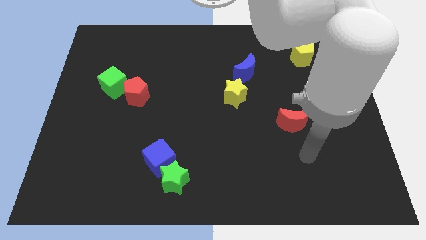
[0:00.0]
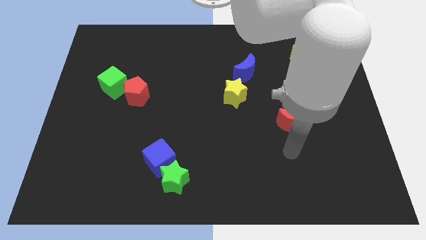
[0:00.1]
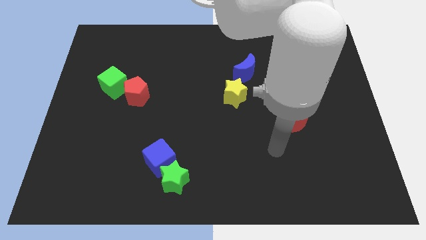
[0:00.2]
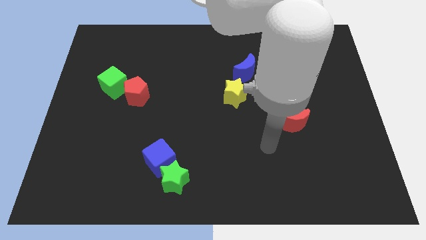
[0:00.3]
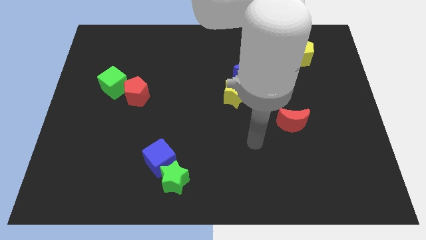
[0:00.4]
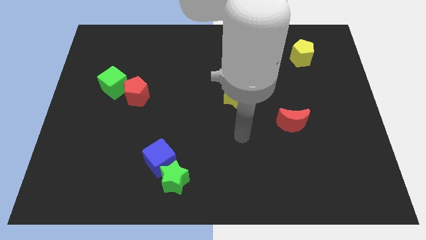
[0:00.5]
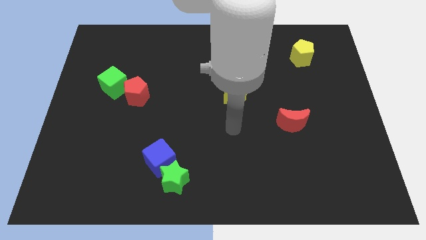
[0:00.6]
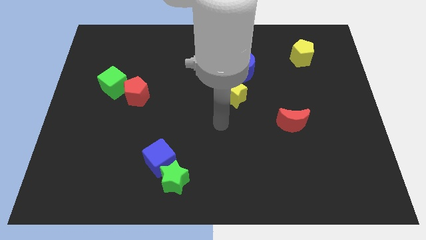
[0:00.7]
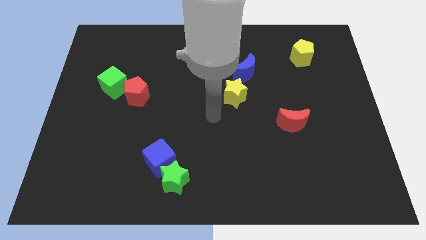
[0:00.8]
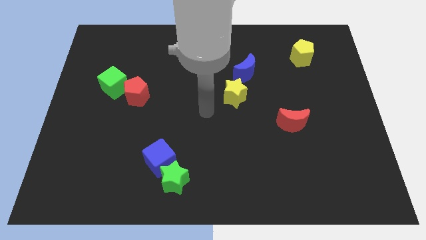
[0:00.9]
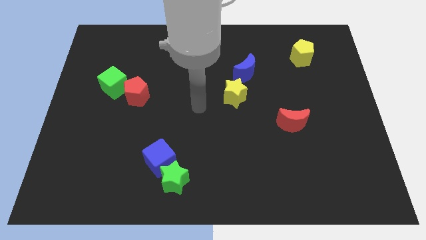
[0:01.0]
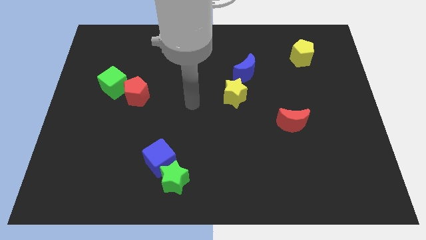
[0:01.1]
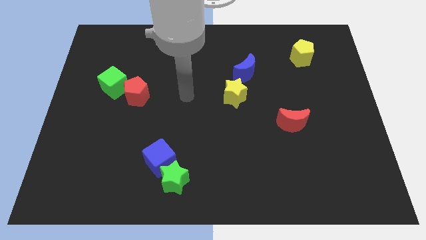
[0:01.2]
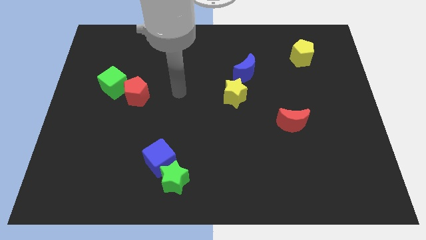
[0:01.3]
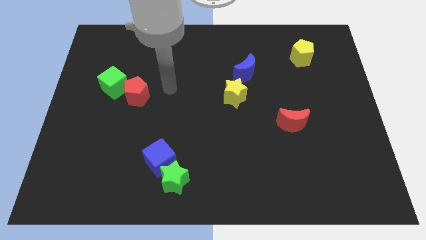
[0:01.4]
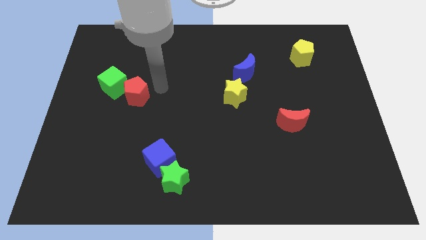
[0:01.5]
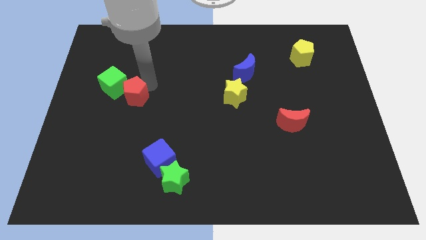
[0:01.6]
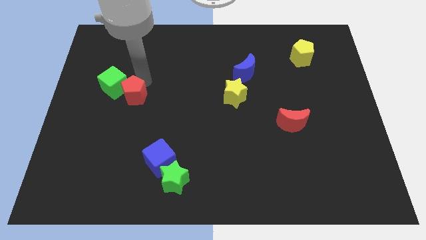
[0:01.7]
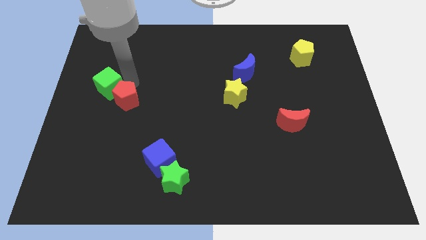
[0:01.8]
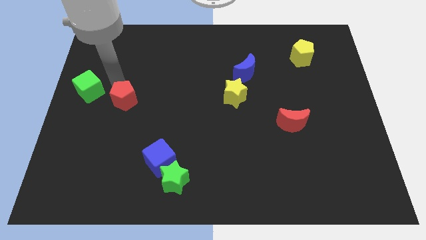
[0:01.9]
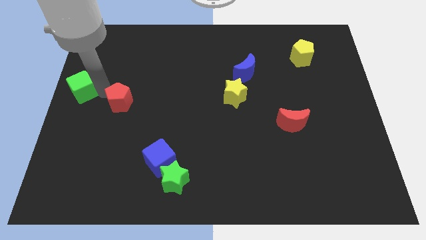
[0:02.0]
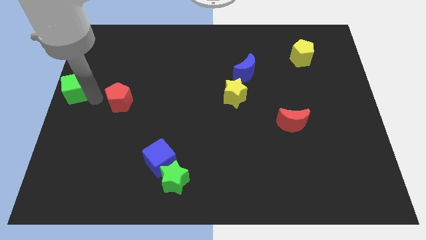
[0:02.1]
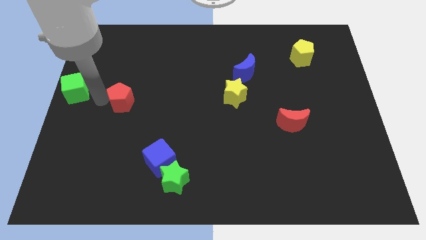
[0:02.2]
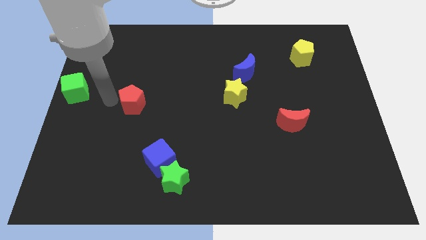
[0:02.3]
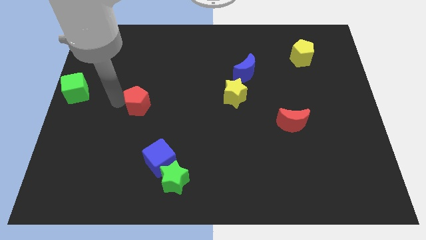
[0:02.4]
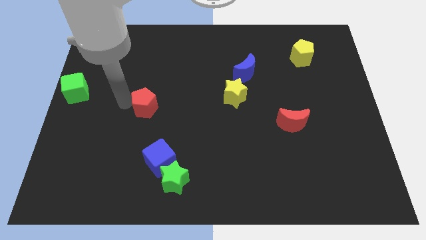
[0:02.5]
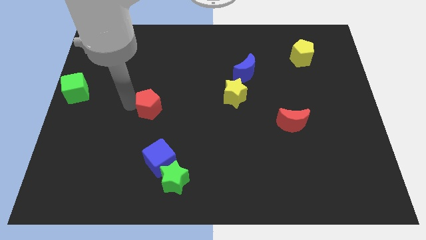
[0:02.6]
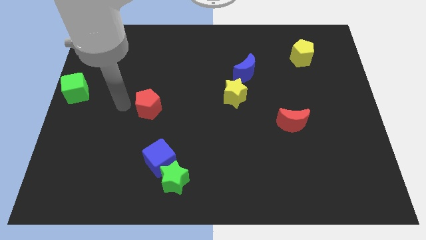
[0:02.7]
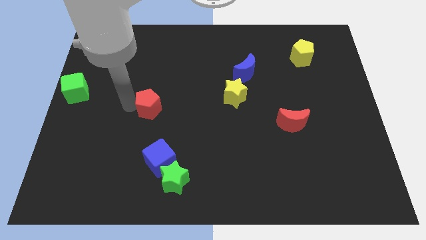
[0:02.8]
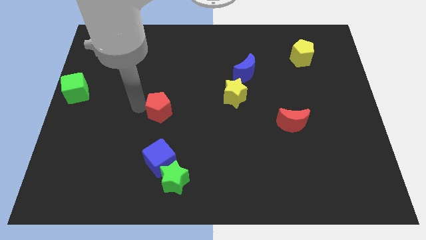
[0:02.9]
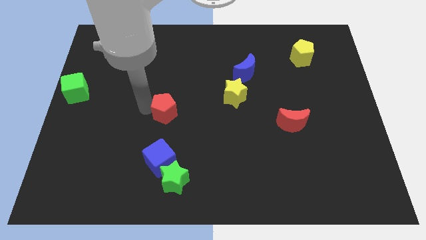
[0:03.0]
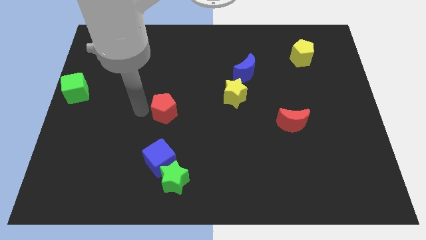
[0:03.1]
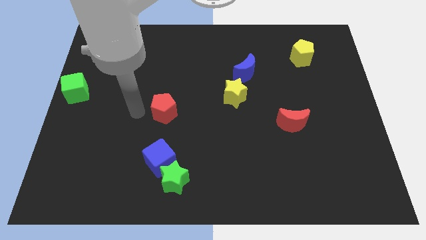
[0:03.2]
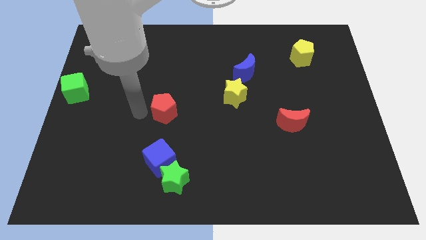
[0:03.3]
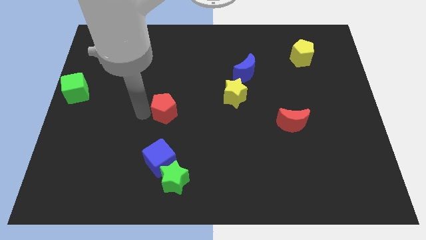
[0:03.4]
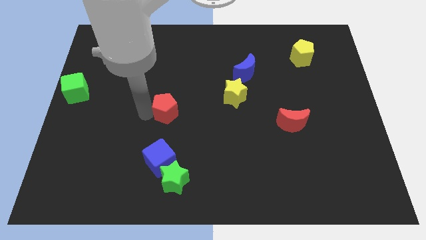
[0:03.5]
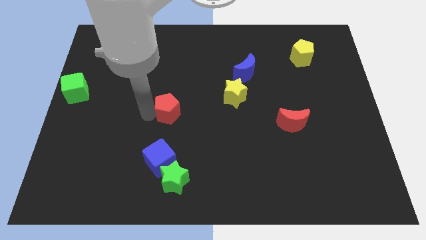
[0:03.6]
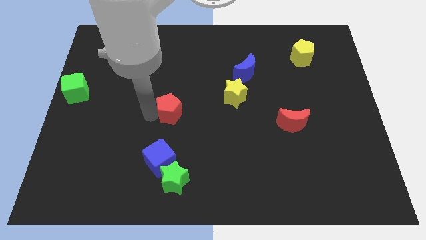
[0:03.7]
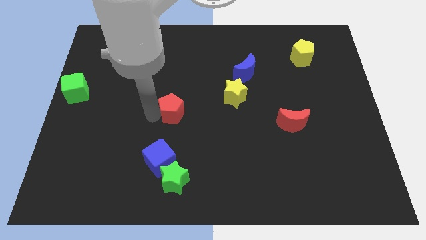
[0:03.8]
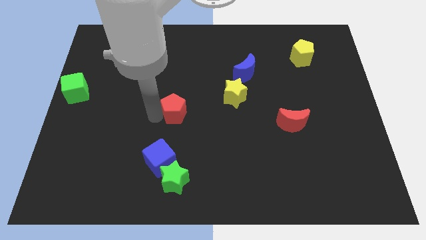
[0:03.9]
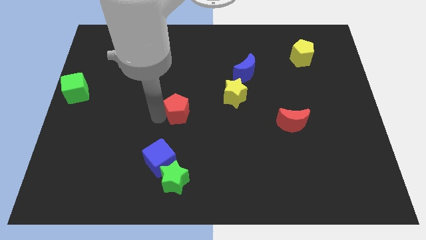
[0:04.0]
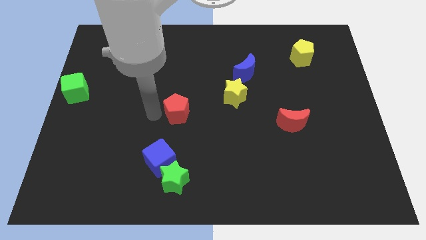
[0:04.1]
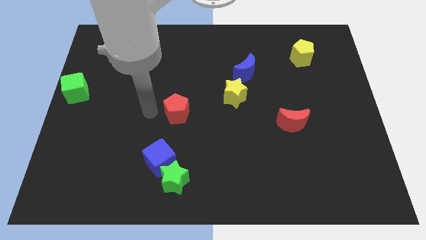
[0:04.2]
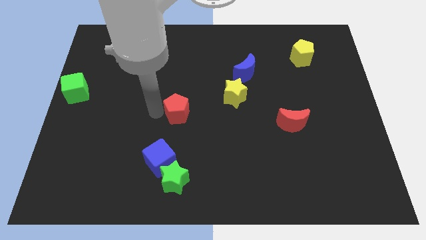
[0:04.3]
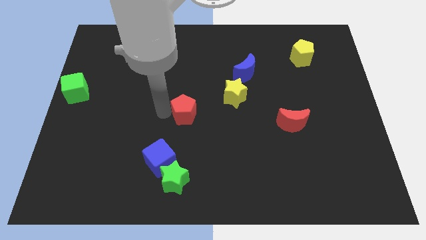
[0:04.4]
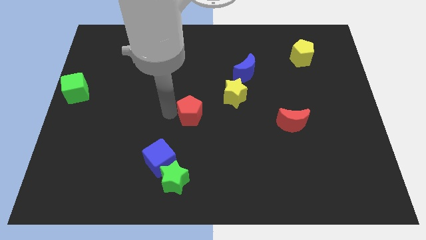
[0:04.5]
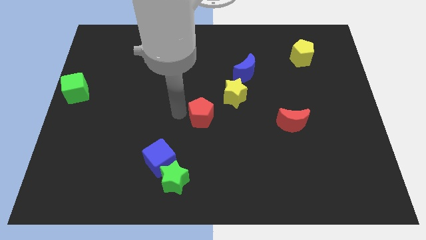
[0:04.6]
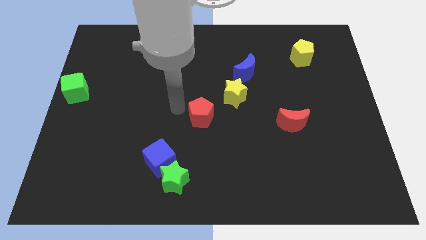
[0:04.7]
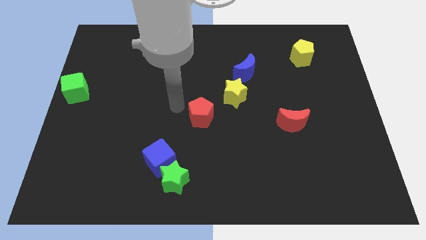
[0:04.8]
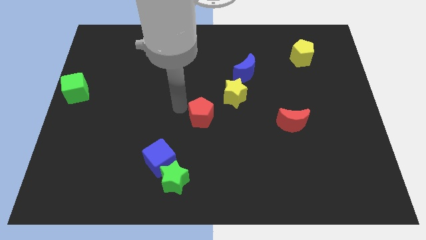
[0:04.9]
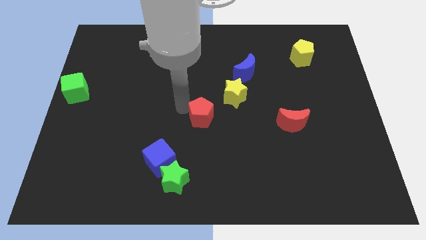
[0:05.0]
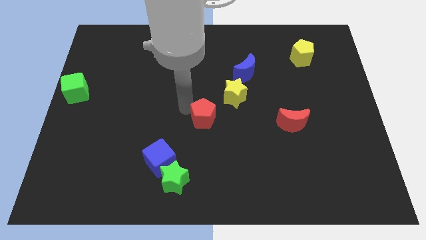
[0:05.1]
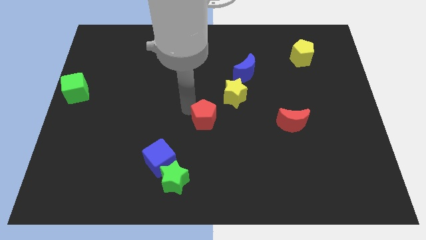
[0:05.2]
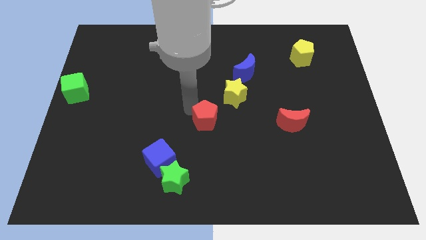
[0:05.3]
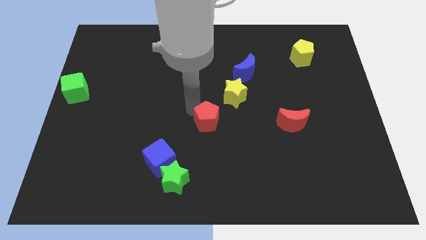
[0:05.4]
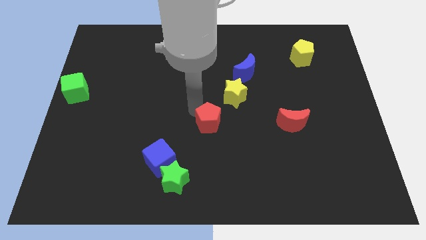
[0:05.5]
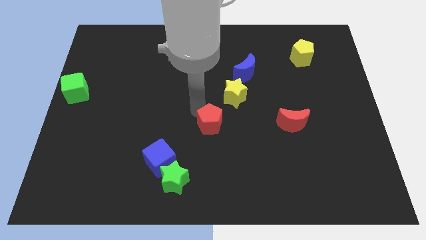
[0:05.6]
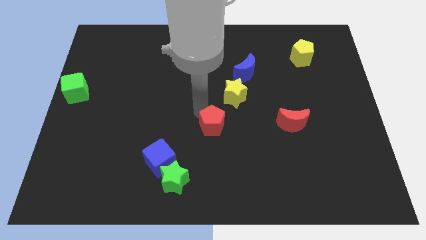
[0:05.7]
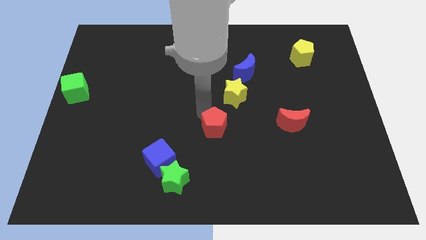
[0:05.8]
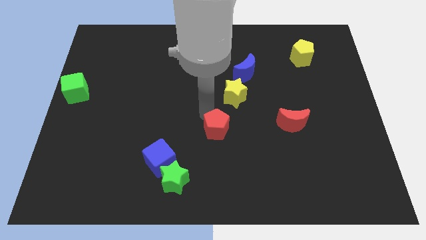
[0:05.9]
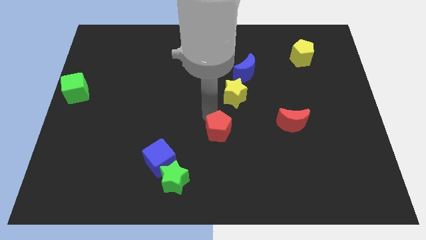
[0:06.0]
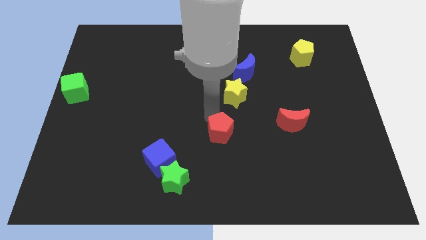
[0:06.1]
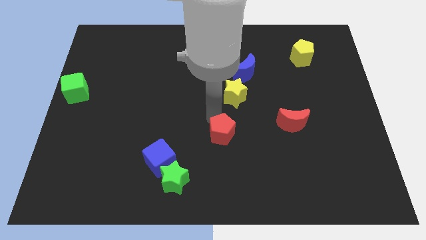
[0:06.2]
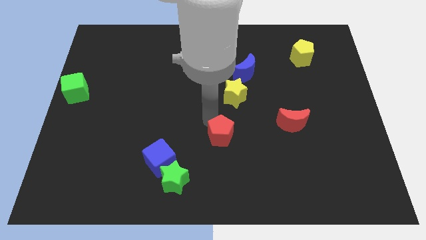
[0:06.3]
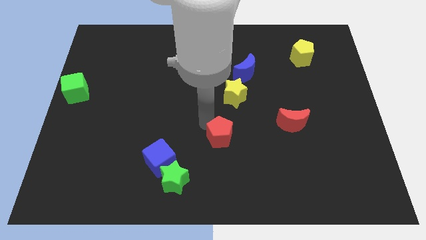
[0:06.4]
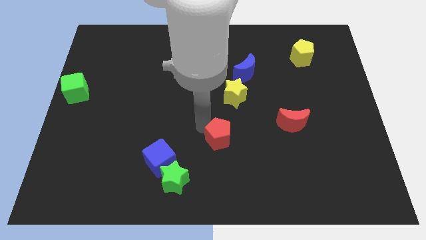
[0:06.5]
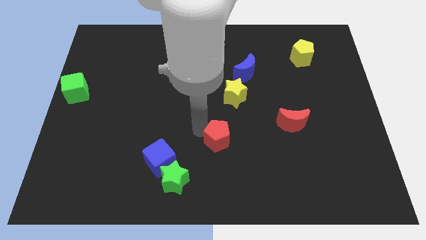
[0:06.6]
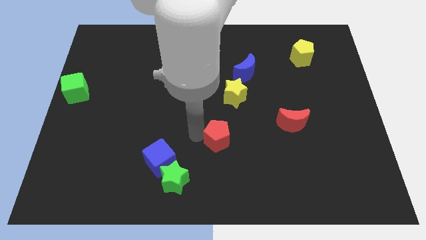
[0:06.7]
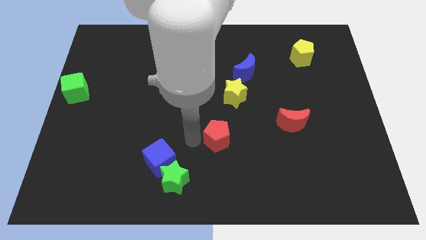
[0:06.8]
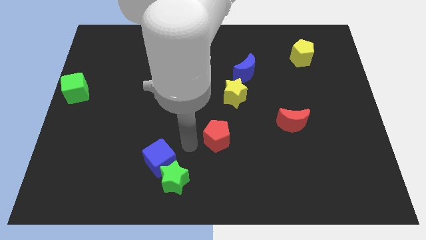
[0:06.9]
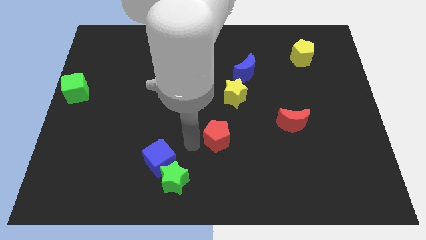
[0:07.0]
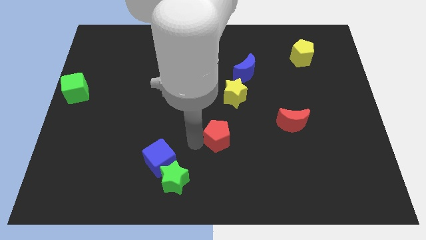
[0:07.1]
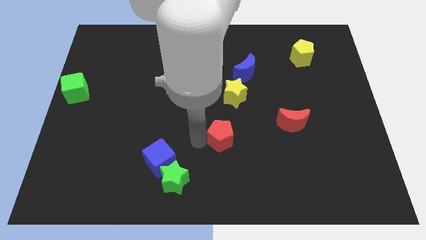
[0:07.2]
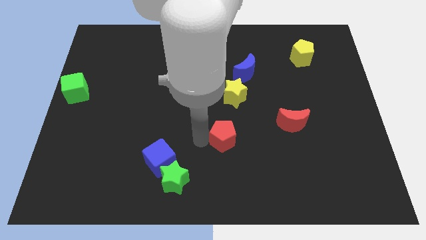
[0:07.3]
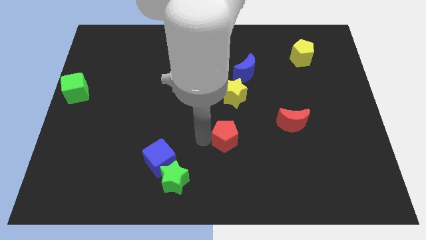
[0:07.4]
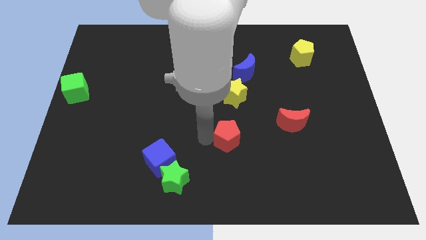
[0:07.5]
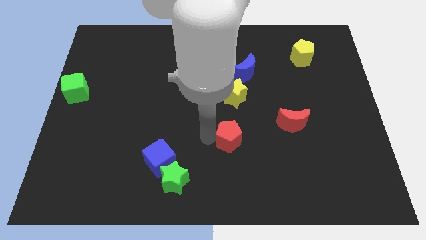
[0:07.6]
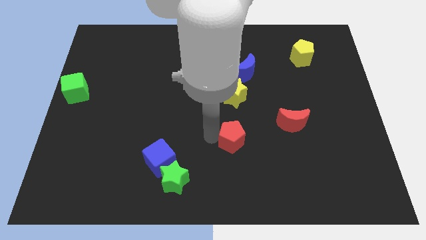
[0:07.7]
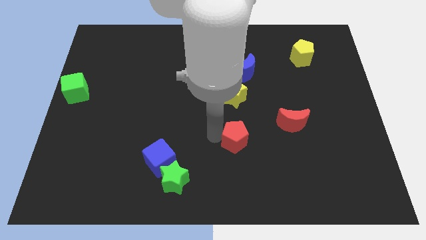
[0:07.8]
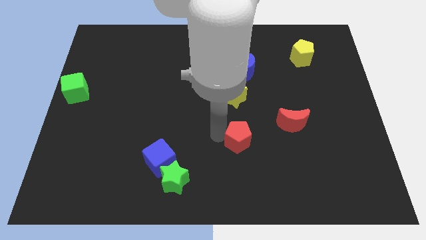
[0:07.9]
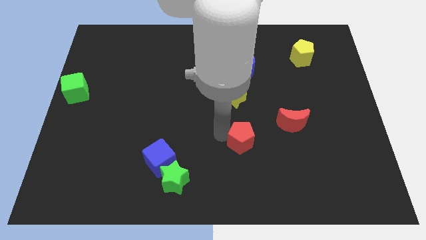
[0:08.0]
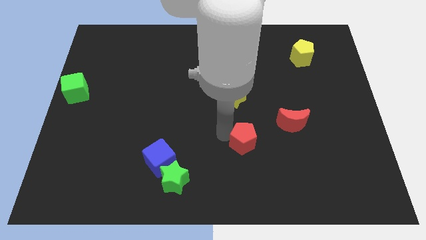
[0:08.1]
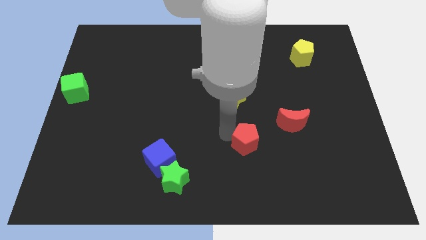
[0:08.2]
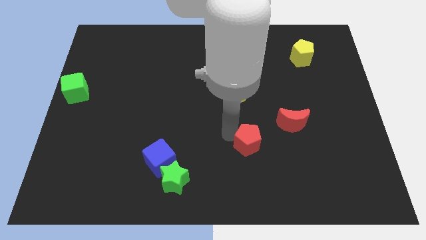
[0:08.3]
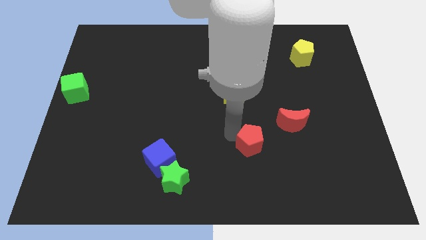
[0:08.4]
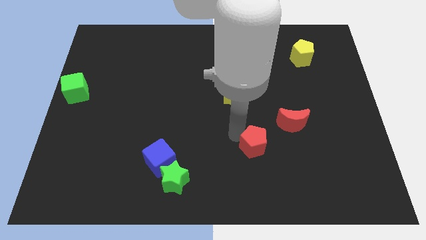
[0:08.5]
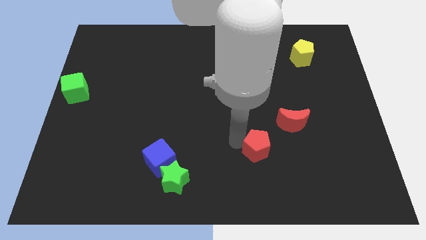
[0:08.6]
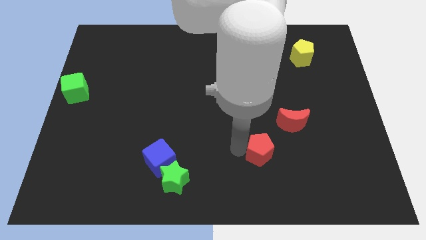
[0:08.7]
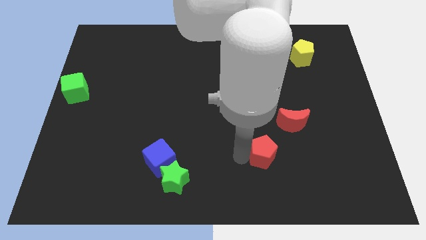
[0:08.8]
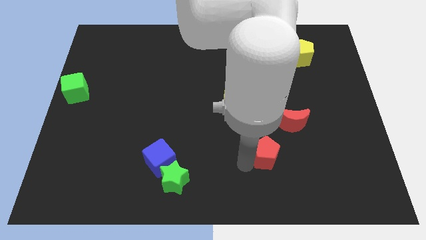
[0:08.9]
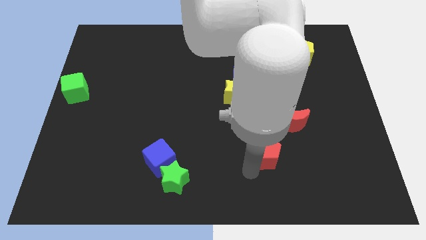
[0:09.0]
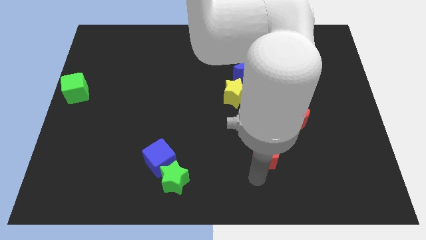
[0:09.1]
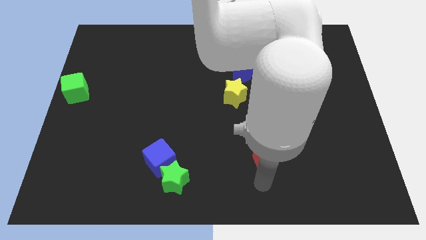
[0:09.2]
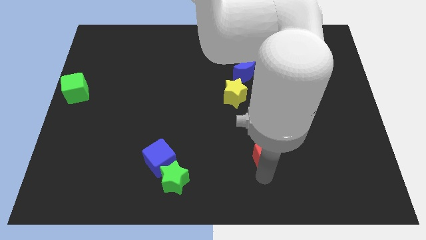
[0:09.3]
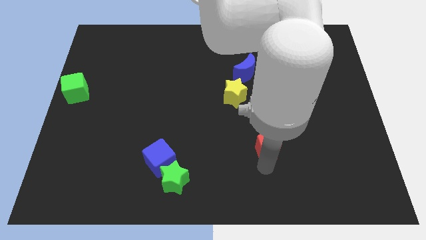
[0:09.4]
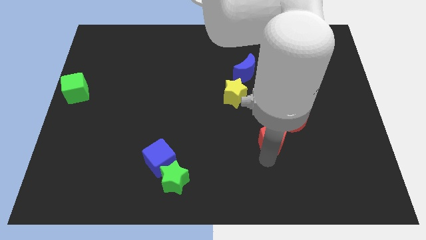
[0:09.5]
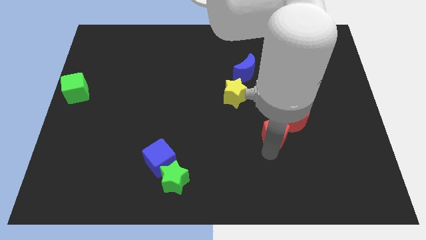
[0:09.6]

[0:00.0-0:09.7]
push the red pentagon right
